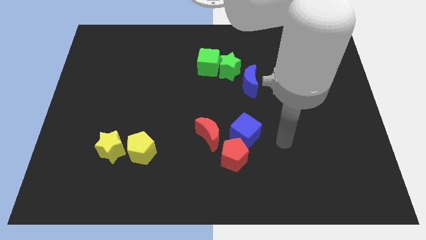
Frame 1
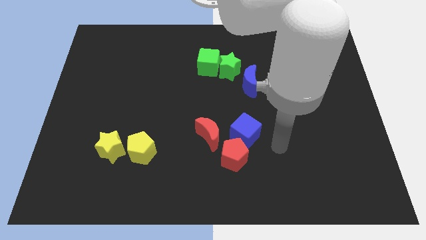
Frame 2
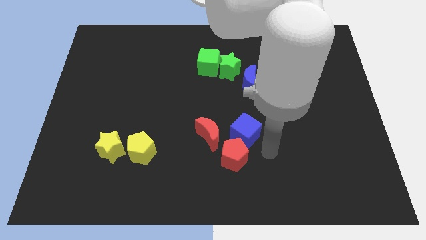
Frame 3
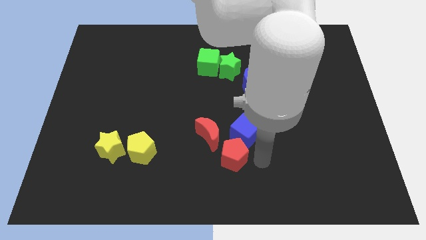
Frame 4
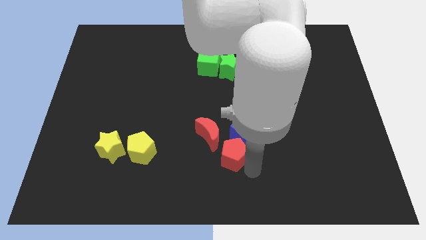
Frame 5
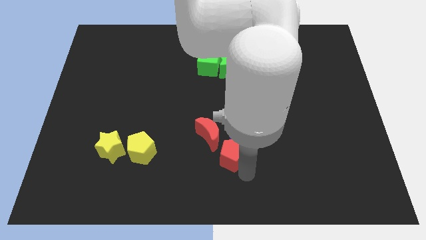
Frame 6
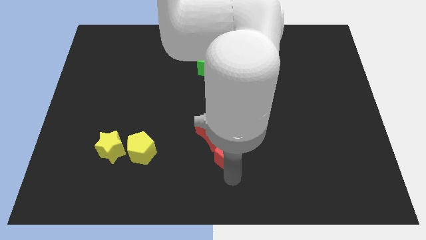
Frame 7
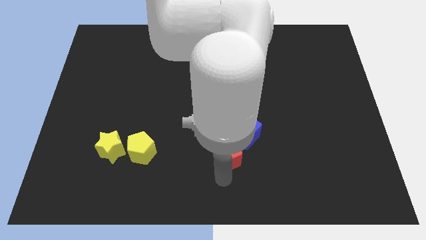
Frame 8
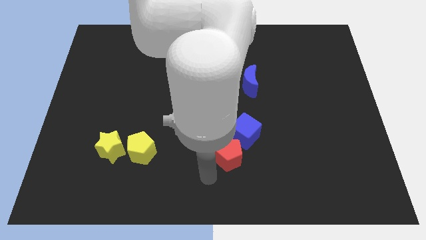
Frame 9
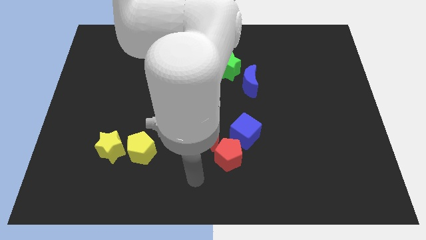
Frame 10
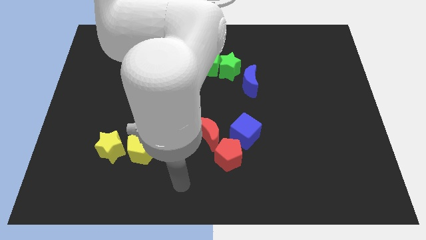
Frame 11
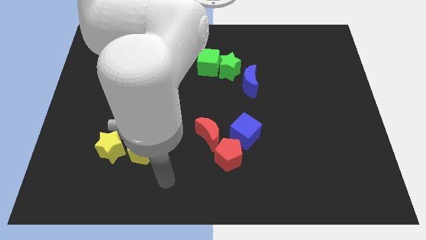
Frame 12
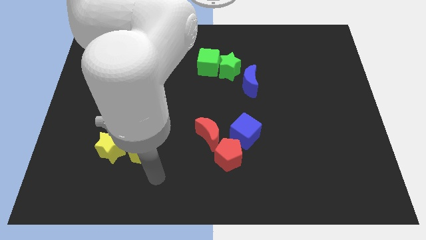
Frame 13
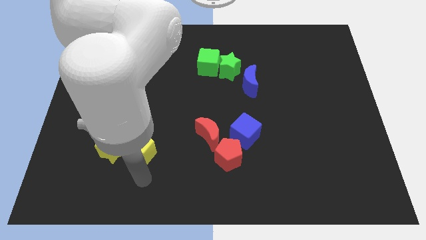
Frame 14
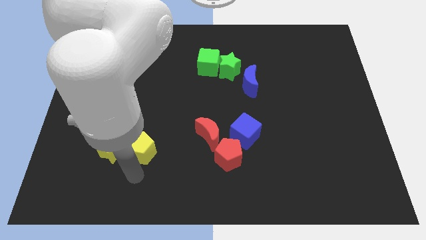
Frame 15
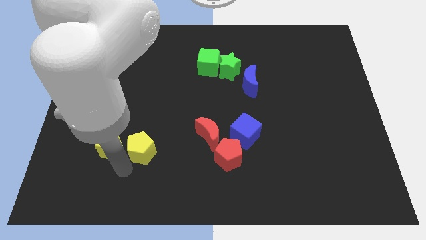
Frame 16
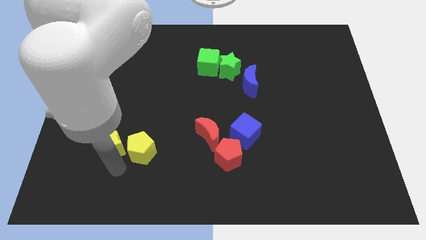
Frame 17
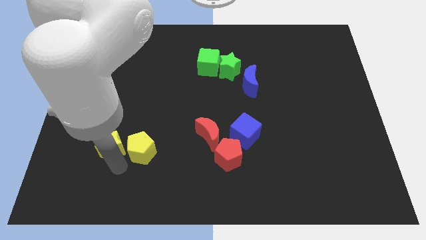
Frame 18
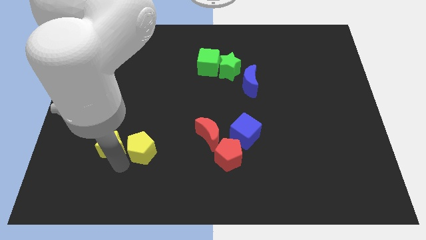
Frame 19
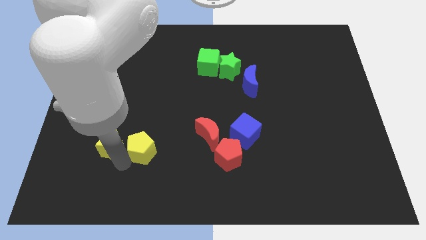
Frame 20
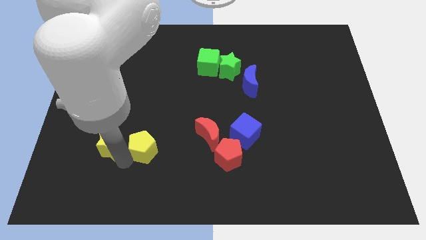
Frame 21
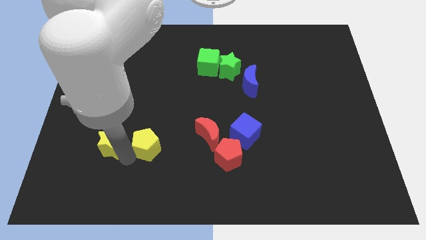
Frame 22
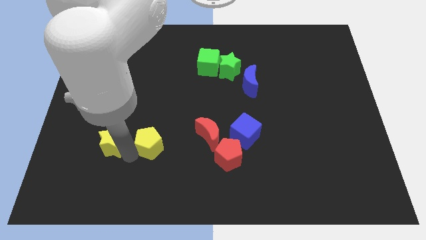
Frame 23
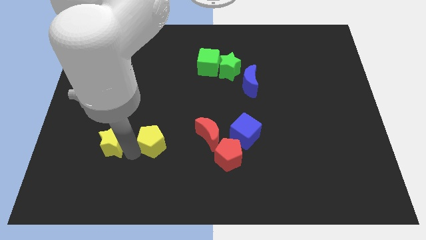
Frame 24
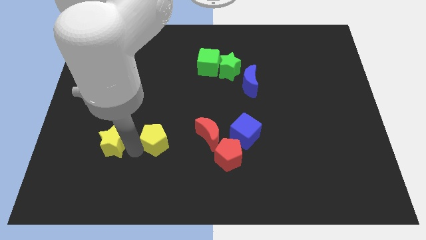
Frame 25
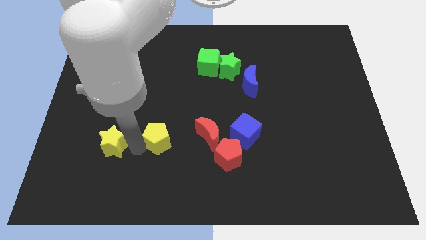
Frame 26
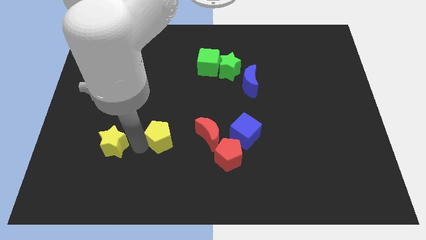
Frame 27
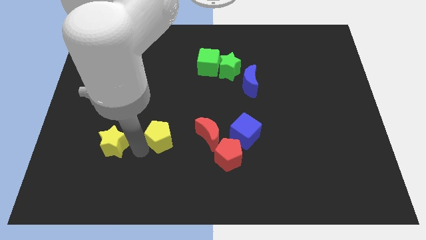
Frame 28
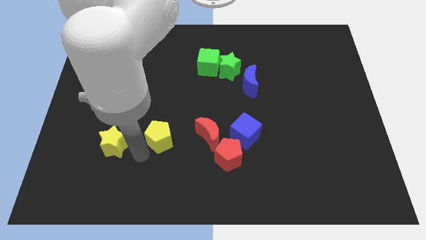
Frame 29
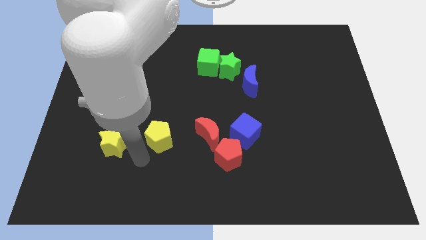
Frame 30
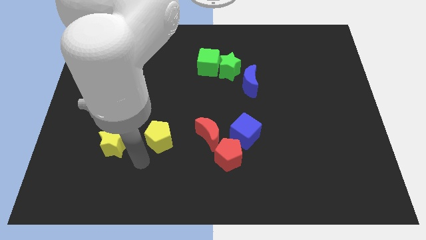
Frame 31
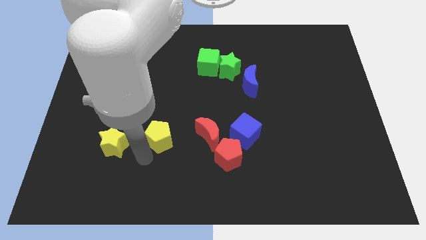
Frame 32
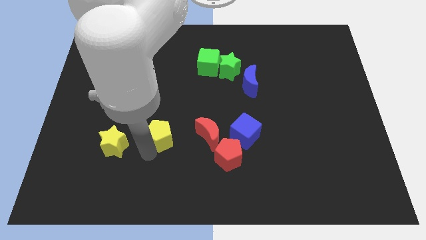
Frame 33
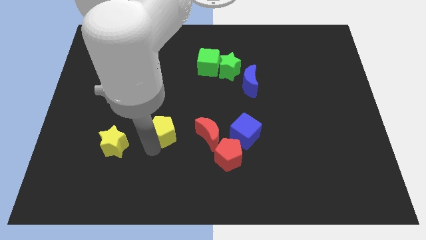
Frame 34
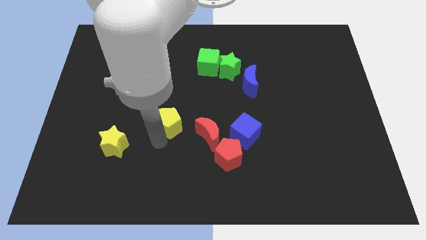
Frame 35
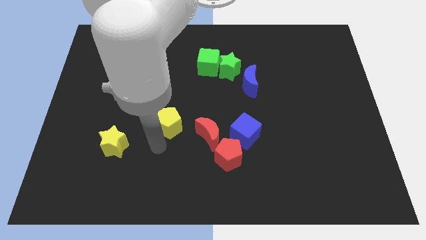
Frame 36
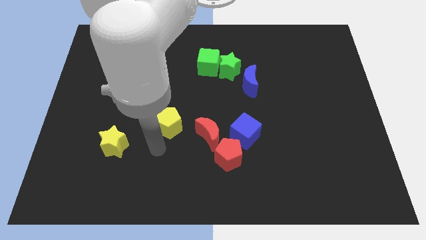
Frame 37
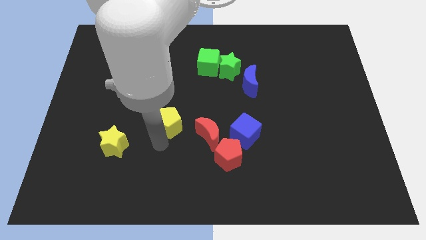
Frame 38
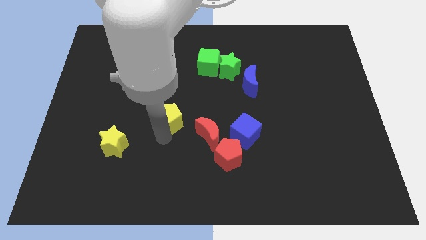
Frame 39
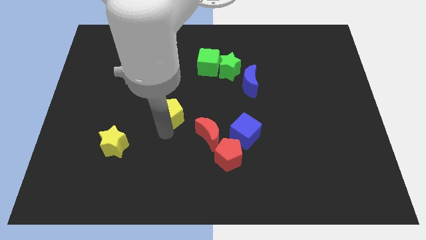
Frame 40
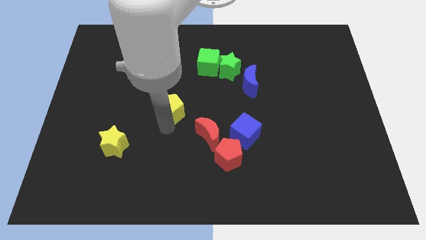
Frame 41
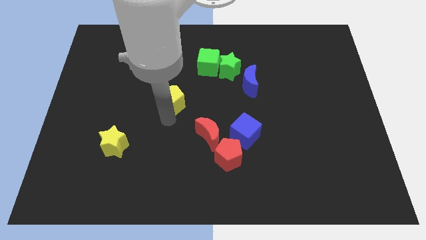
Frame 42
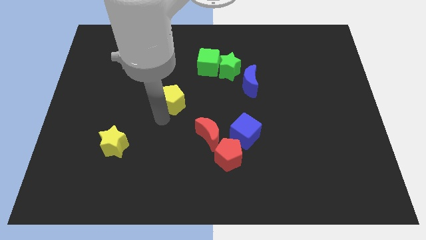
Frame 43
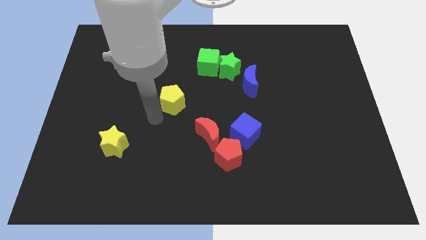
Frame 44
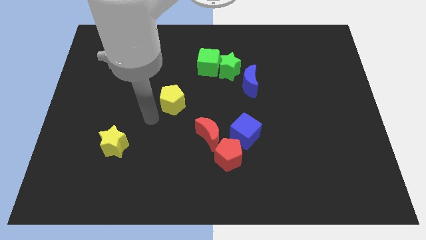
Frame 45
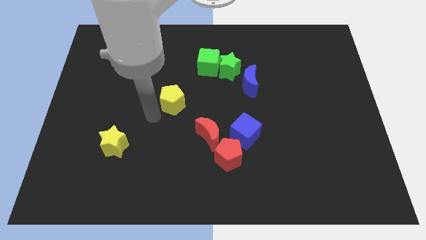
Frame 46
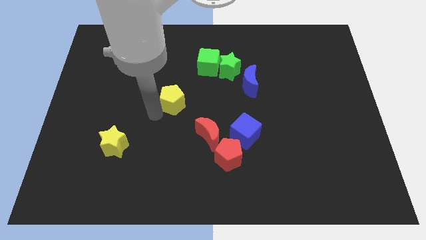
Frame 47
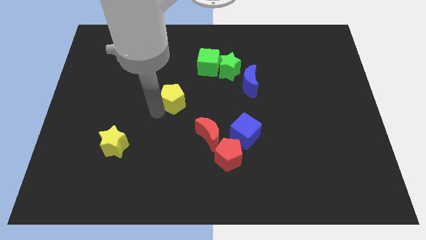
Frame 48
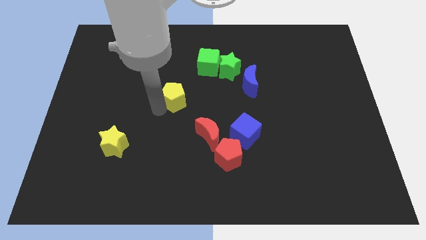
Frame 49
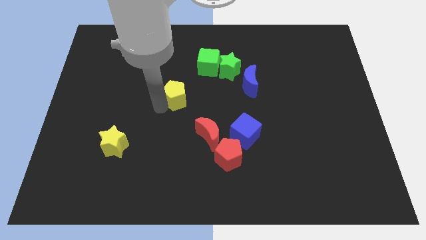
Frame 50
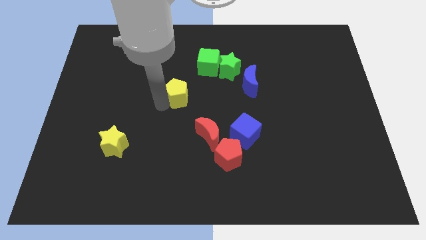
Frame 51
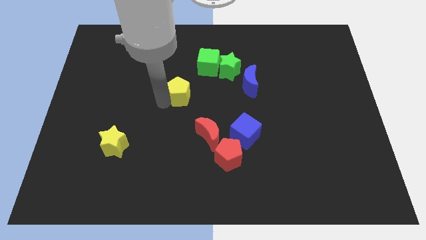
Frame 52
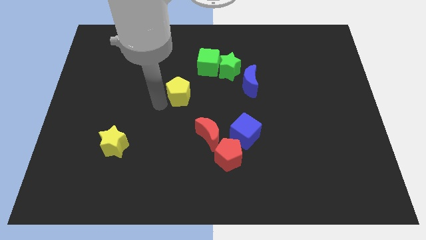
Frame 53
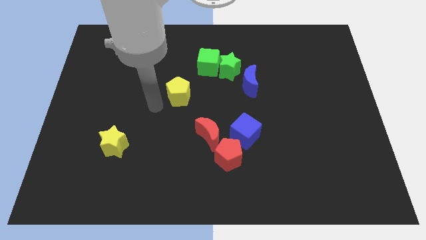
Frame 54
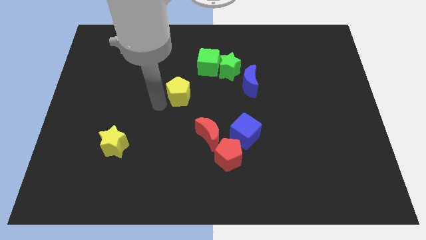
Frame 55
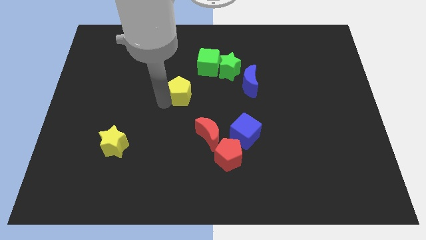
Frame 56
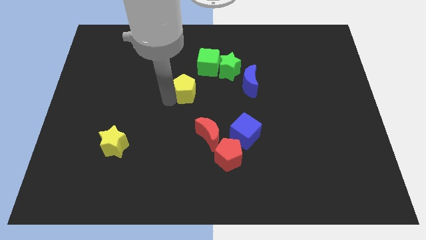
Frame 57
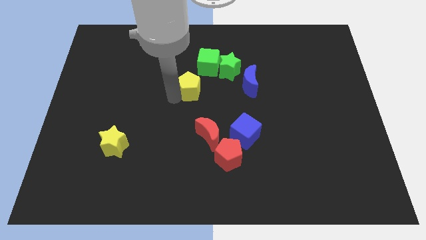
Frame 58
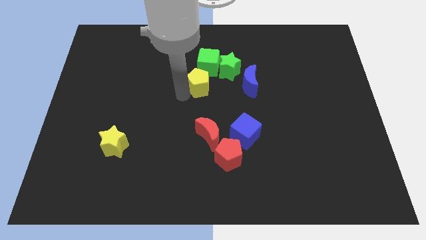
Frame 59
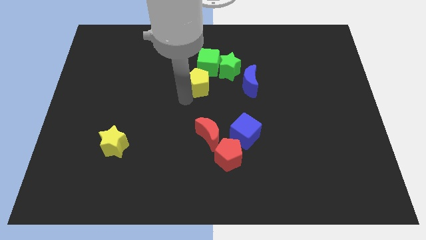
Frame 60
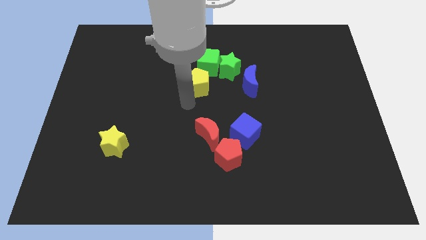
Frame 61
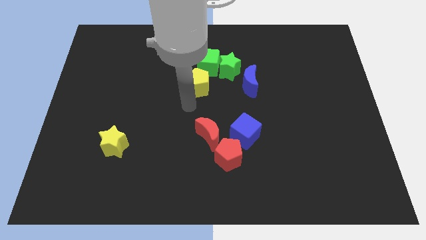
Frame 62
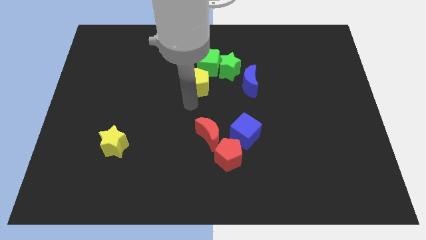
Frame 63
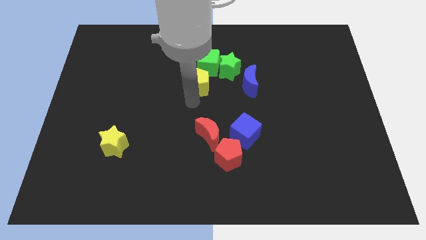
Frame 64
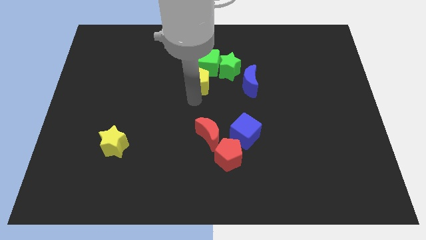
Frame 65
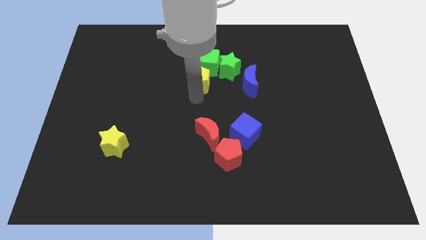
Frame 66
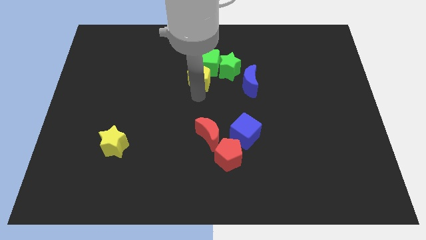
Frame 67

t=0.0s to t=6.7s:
put the yellow pentagon towards the green cube

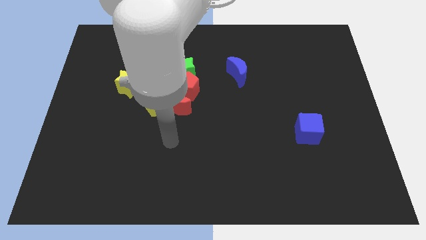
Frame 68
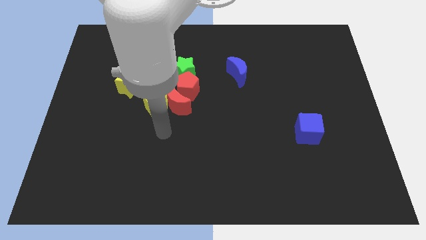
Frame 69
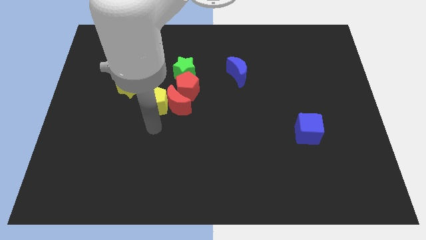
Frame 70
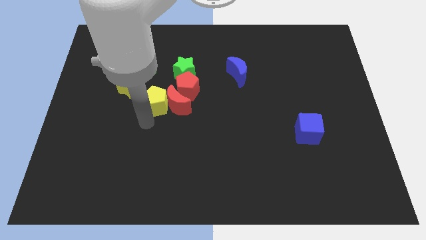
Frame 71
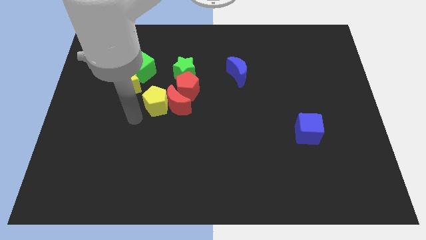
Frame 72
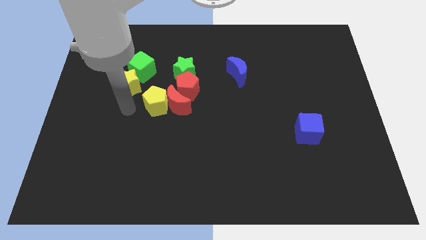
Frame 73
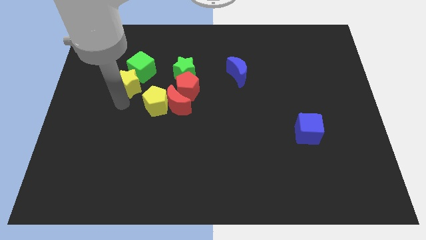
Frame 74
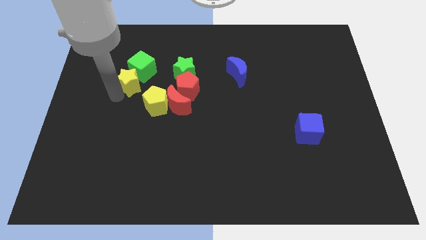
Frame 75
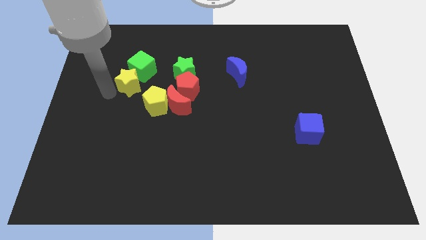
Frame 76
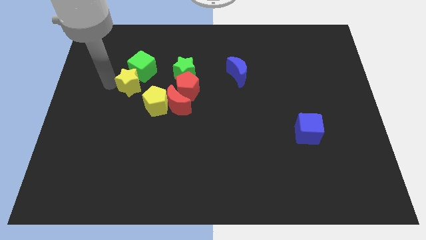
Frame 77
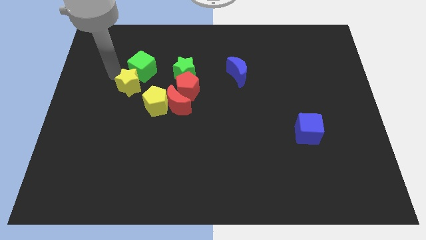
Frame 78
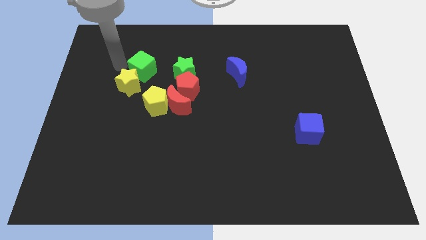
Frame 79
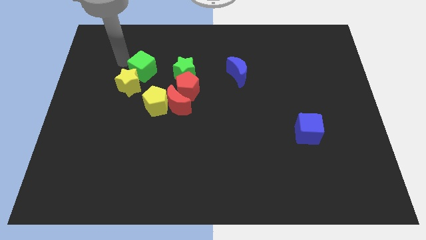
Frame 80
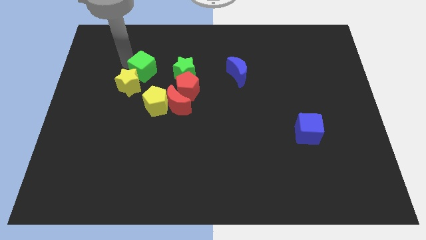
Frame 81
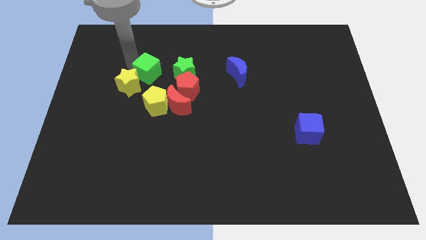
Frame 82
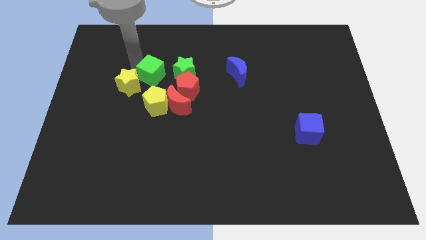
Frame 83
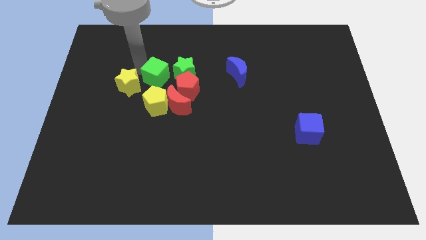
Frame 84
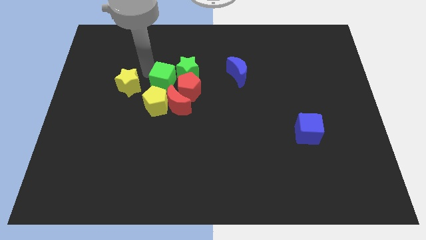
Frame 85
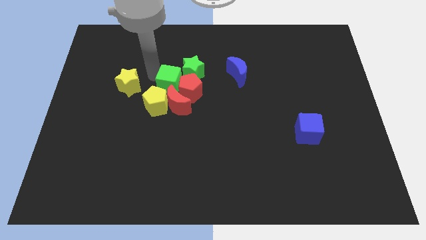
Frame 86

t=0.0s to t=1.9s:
move the green cube close to the red pentagon
